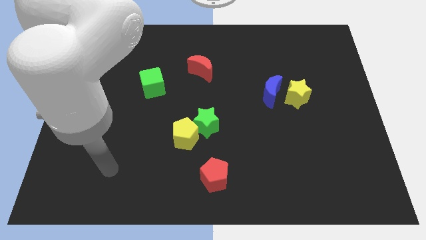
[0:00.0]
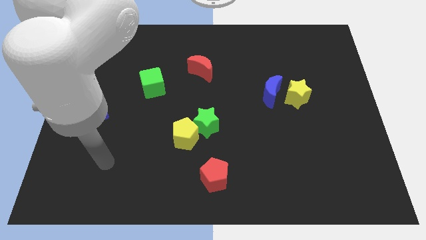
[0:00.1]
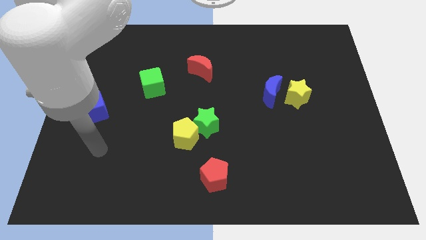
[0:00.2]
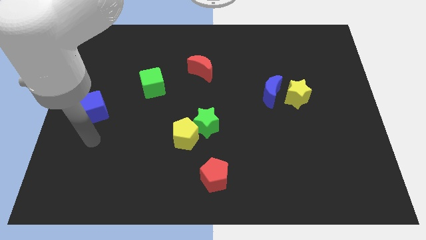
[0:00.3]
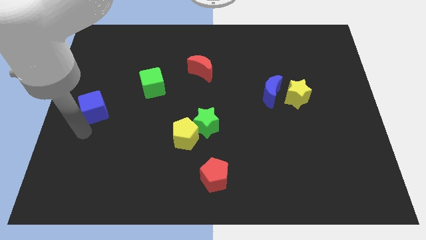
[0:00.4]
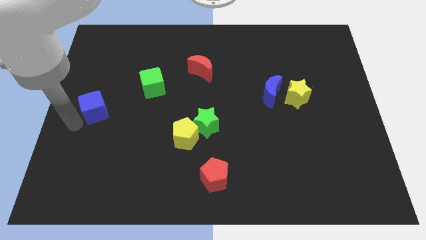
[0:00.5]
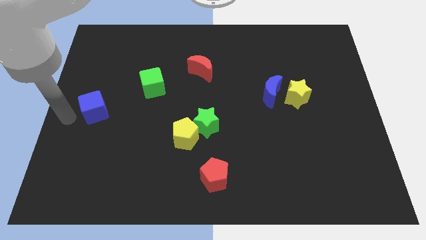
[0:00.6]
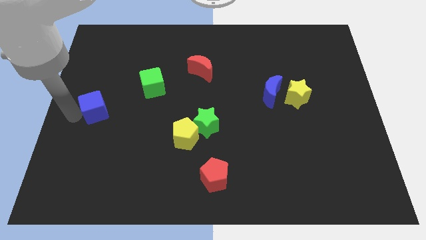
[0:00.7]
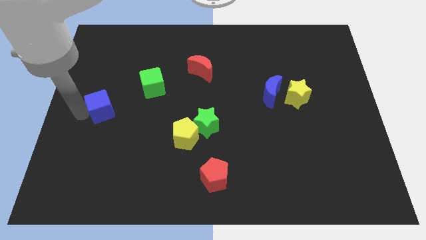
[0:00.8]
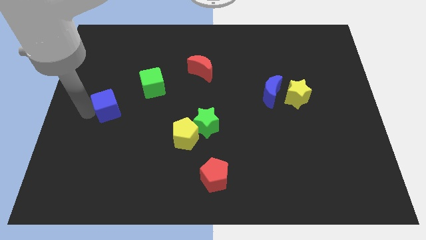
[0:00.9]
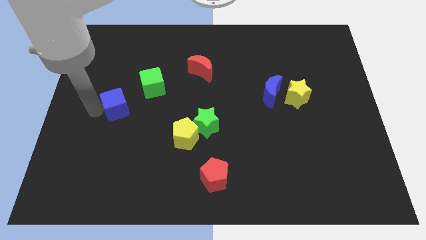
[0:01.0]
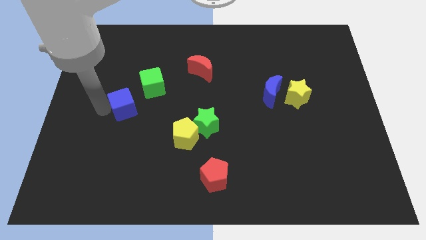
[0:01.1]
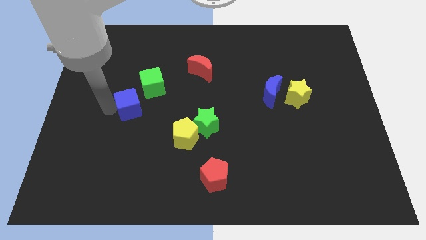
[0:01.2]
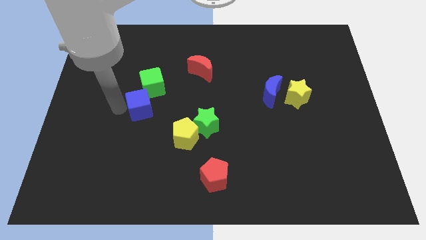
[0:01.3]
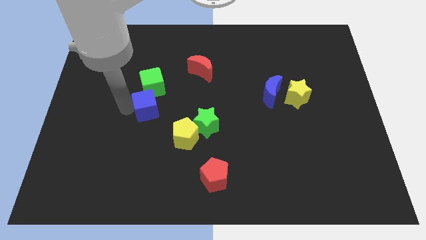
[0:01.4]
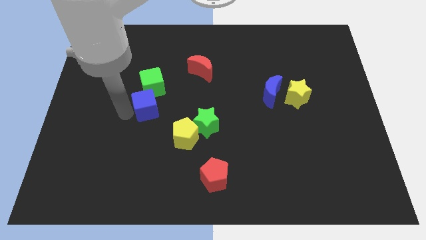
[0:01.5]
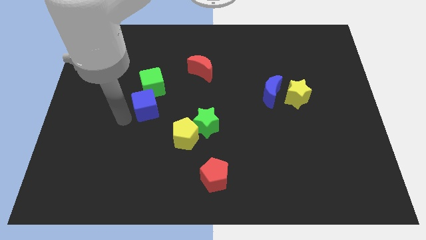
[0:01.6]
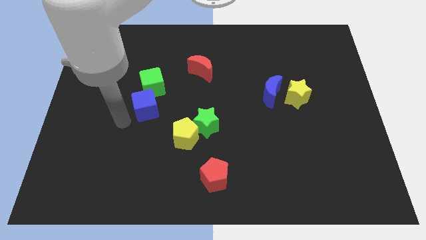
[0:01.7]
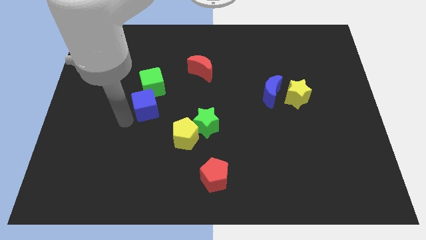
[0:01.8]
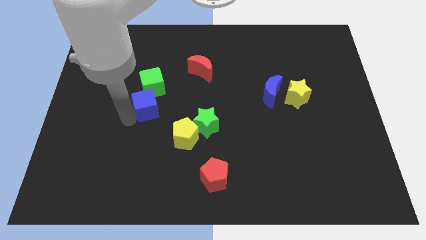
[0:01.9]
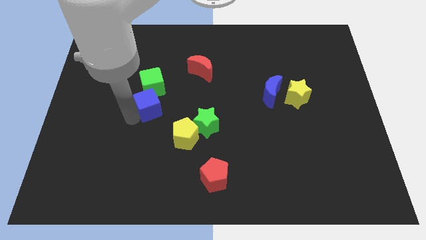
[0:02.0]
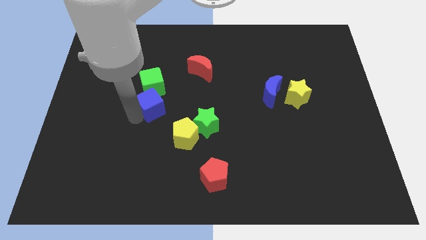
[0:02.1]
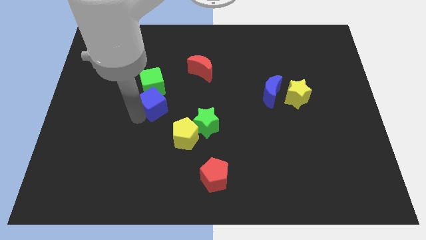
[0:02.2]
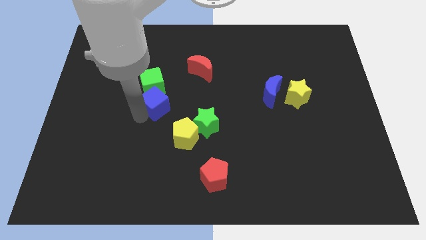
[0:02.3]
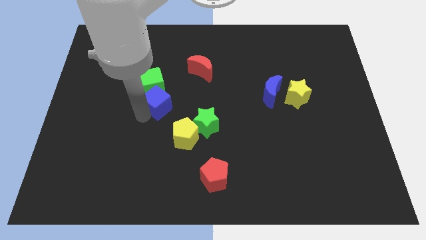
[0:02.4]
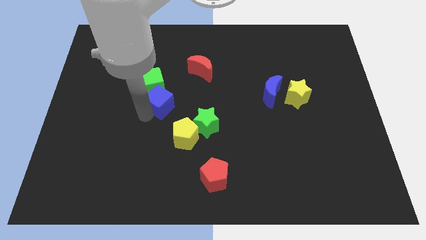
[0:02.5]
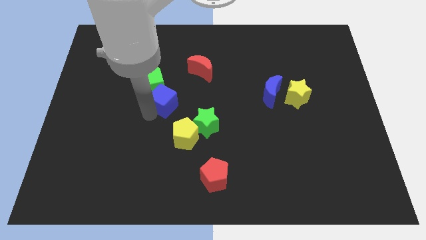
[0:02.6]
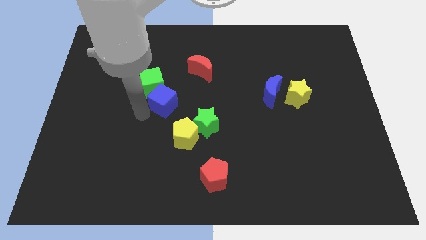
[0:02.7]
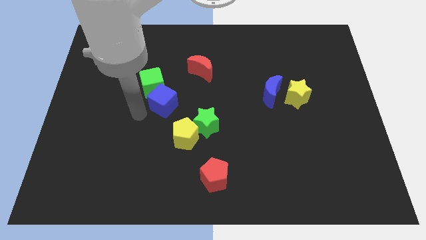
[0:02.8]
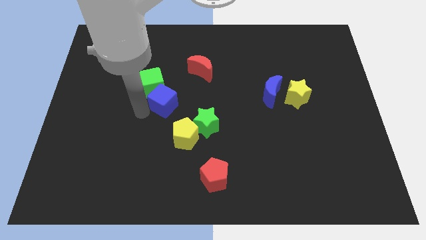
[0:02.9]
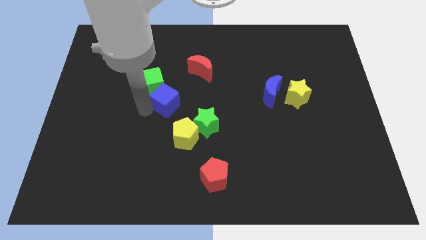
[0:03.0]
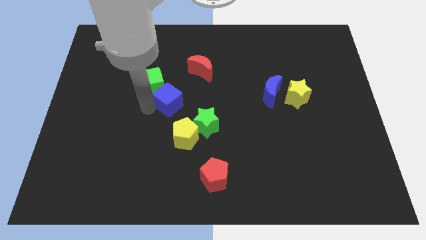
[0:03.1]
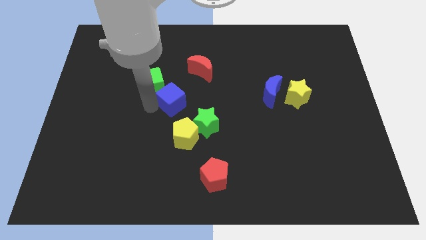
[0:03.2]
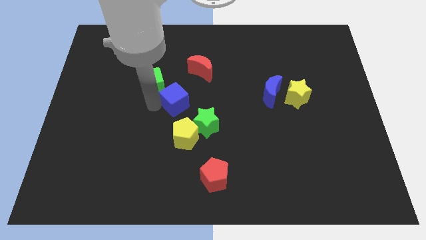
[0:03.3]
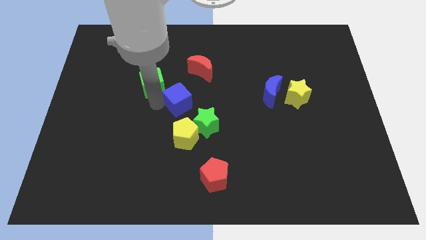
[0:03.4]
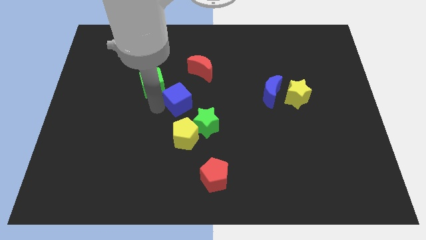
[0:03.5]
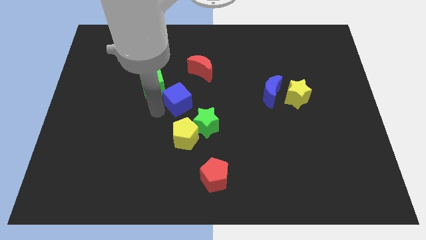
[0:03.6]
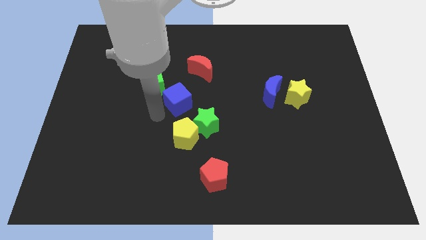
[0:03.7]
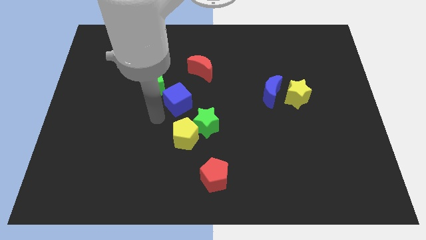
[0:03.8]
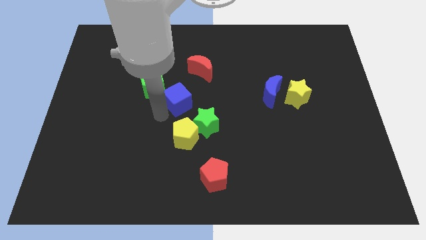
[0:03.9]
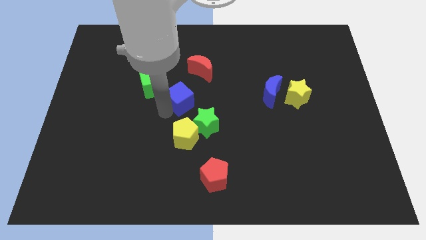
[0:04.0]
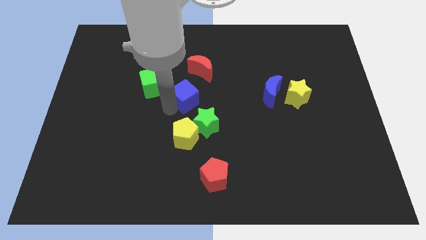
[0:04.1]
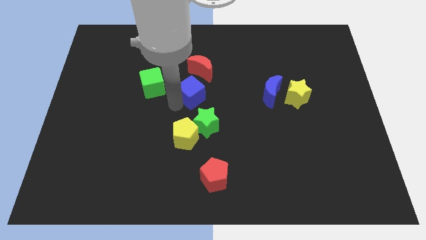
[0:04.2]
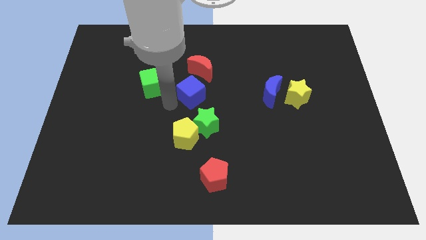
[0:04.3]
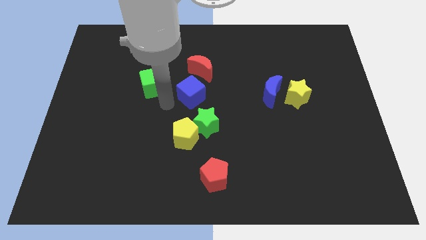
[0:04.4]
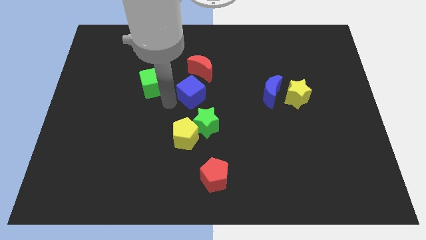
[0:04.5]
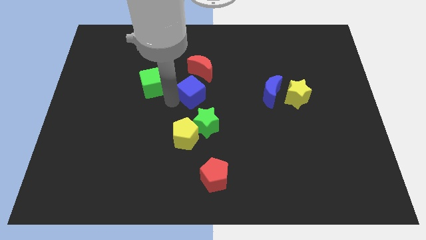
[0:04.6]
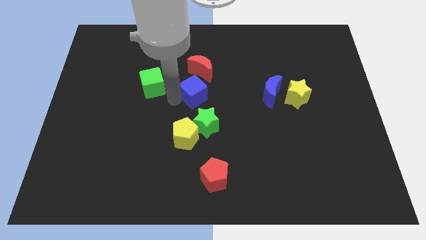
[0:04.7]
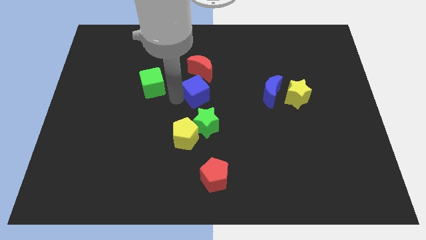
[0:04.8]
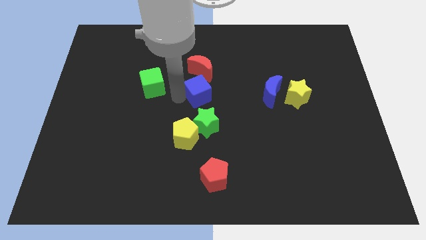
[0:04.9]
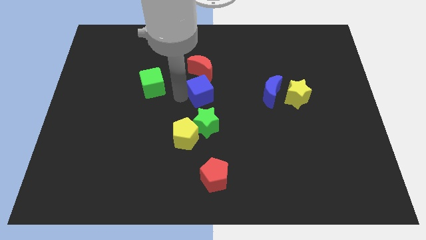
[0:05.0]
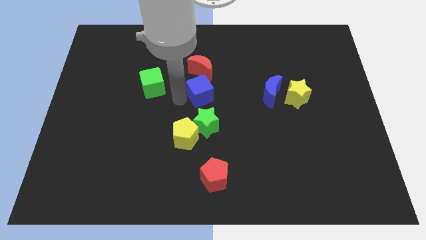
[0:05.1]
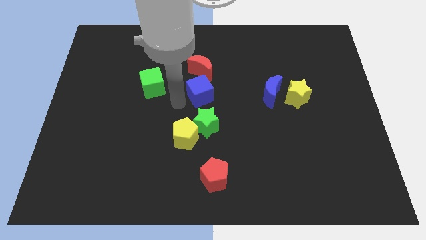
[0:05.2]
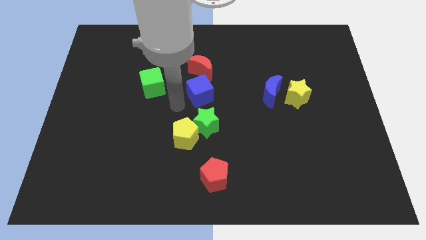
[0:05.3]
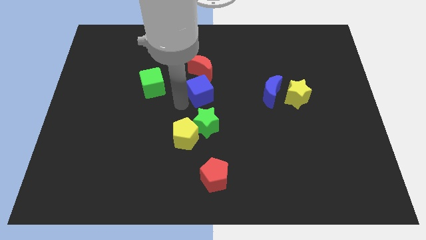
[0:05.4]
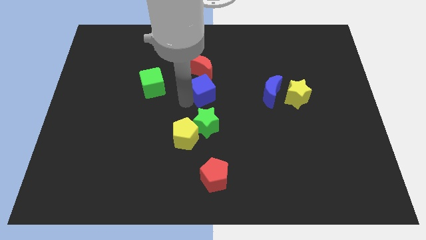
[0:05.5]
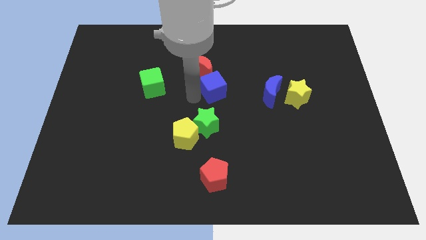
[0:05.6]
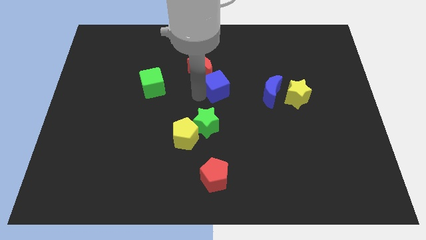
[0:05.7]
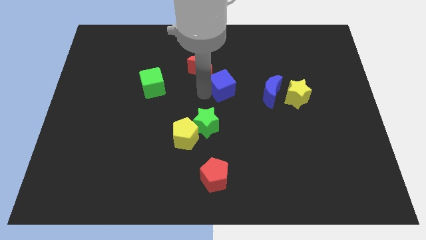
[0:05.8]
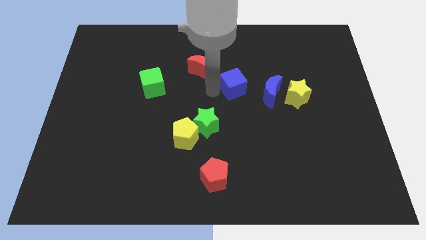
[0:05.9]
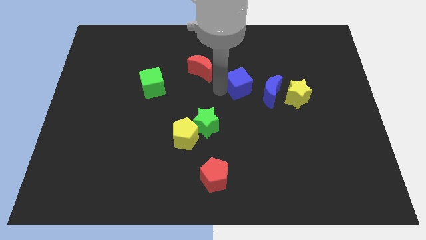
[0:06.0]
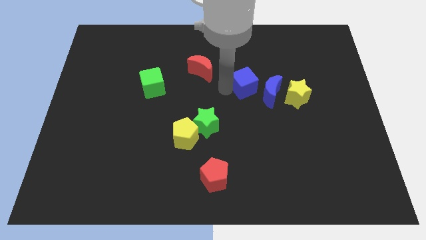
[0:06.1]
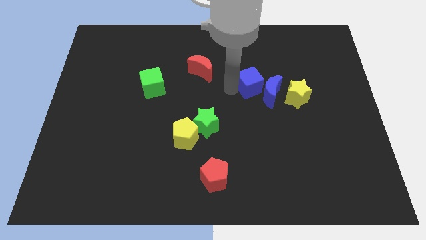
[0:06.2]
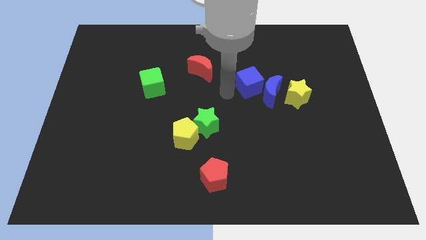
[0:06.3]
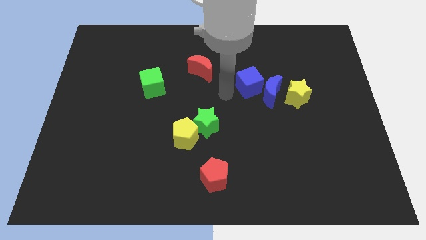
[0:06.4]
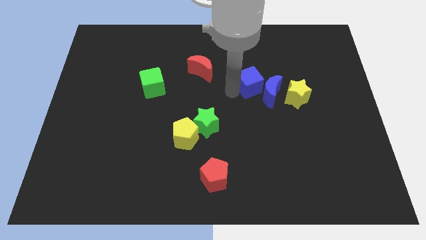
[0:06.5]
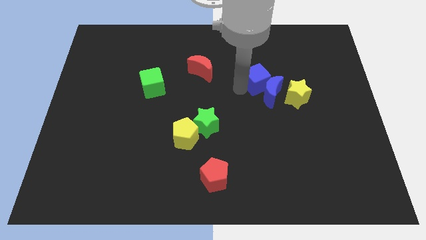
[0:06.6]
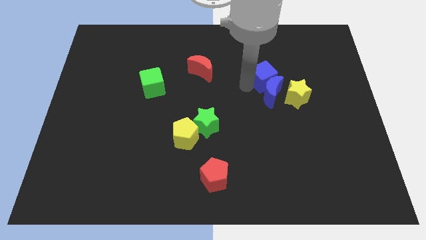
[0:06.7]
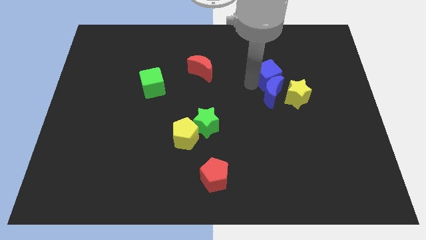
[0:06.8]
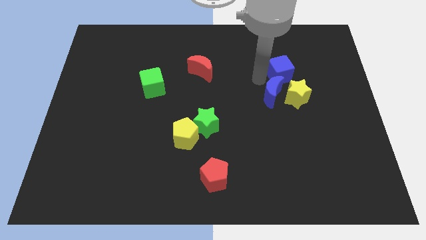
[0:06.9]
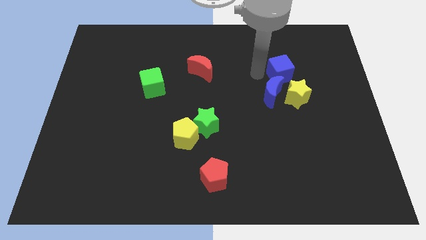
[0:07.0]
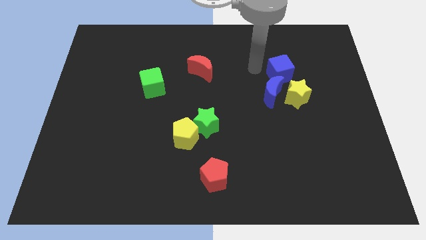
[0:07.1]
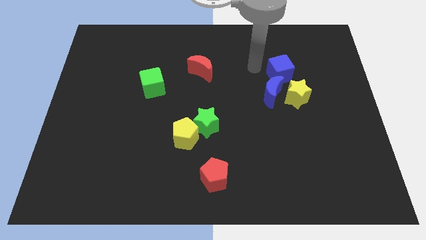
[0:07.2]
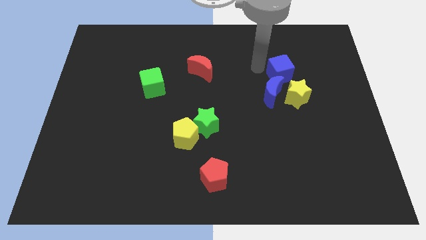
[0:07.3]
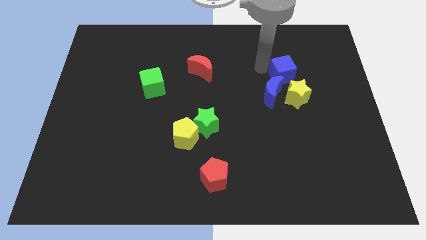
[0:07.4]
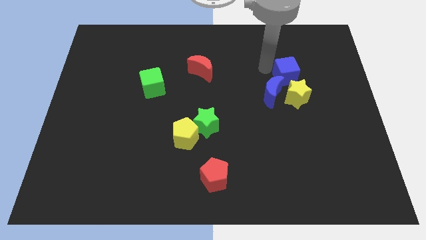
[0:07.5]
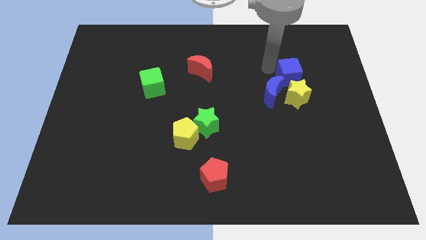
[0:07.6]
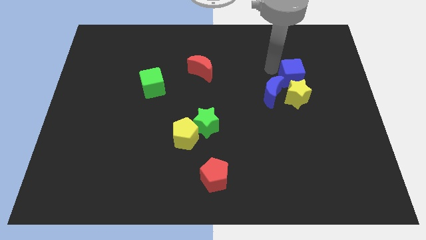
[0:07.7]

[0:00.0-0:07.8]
push the blue cube to the top right side of the yellow star

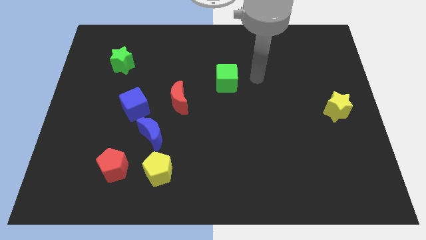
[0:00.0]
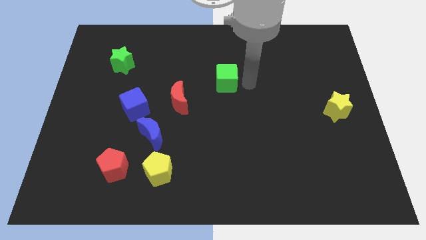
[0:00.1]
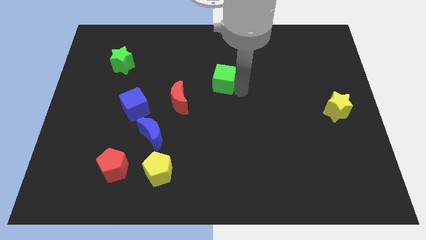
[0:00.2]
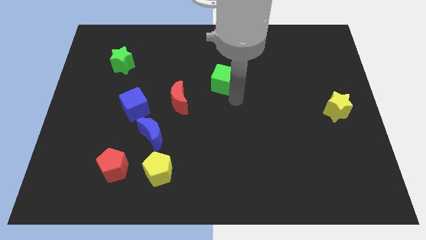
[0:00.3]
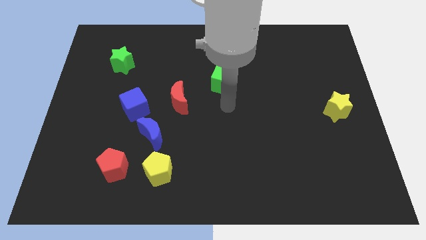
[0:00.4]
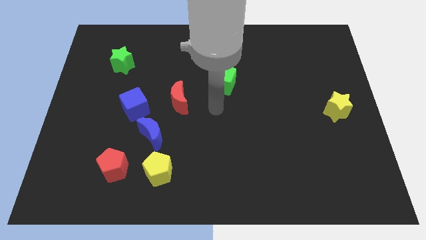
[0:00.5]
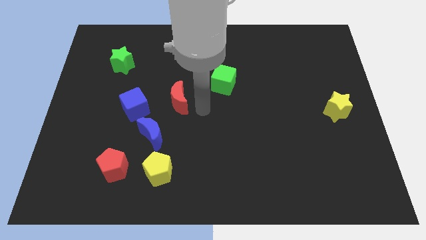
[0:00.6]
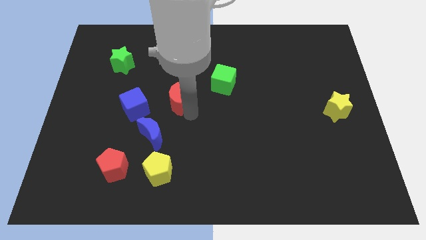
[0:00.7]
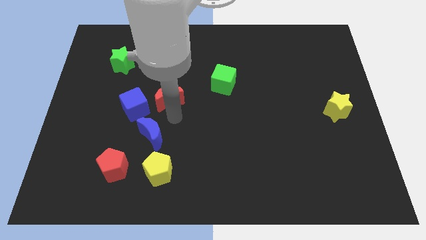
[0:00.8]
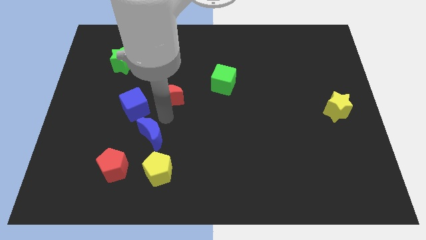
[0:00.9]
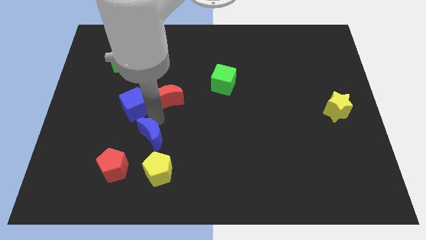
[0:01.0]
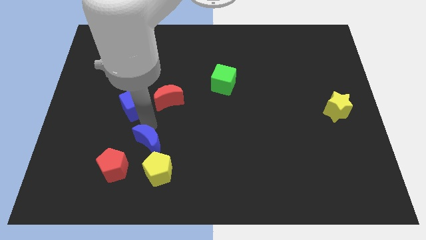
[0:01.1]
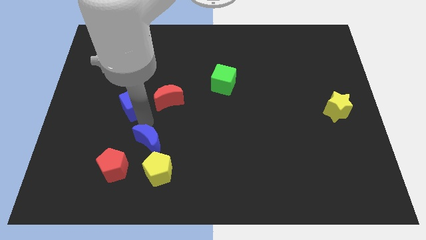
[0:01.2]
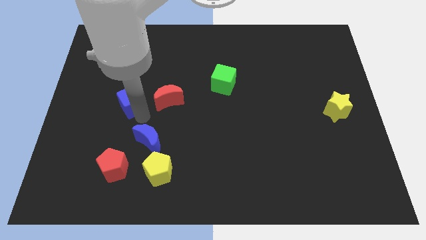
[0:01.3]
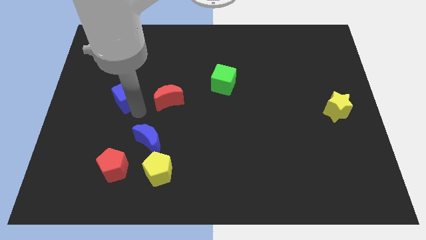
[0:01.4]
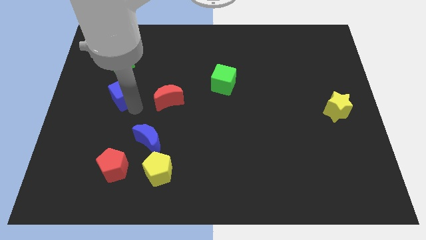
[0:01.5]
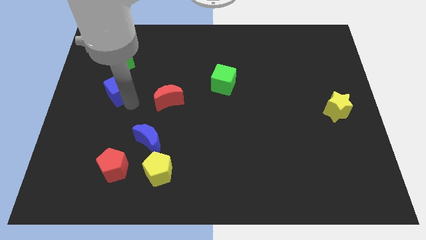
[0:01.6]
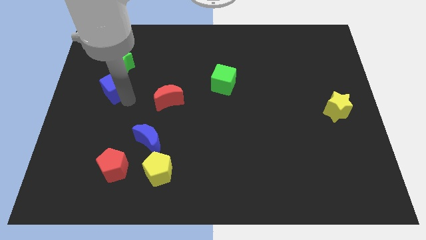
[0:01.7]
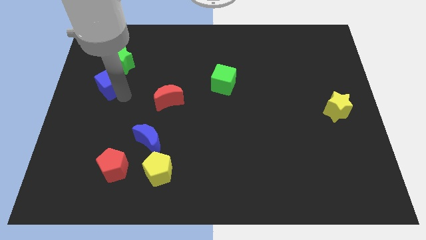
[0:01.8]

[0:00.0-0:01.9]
put the blue cube diagonally down and to the left of the green star
